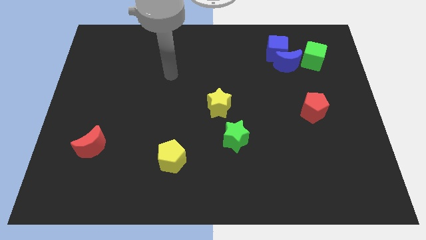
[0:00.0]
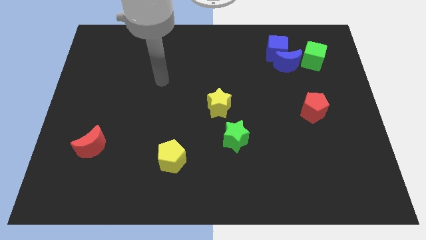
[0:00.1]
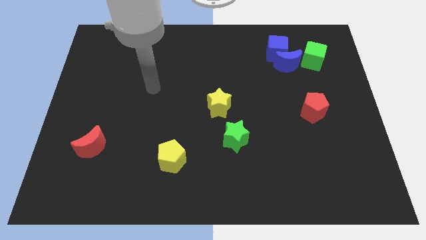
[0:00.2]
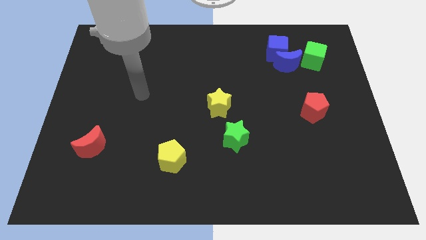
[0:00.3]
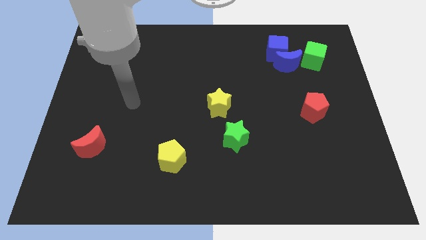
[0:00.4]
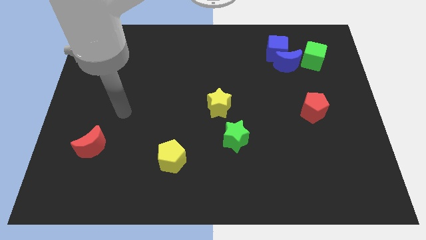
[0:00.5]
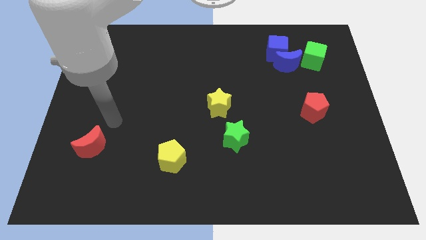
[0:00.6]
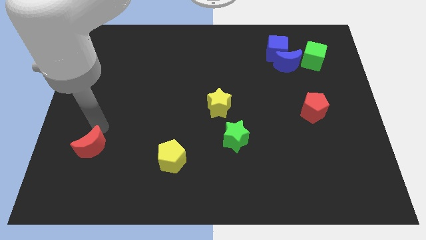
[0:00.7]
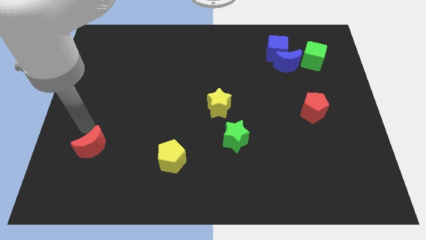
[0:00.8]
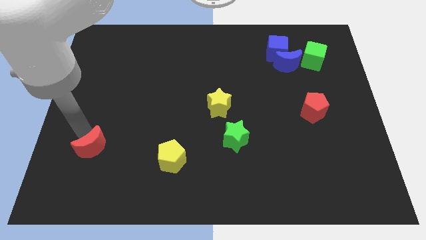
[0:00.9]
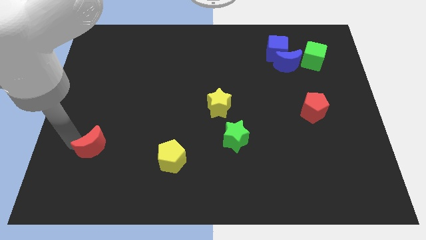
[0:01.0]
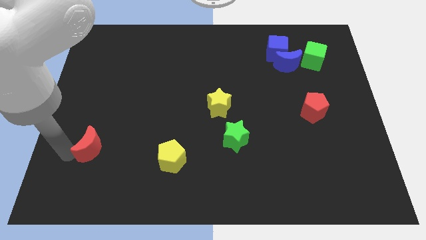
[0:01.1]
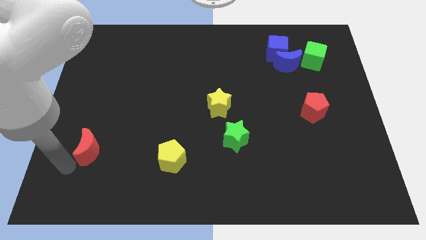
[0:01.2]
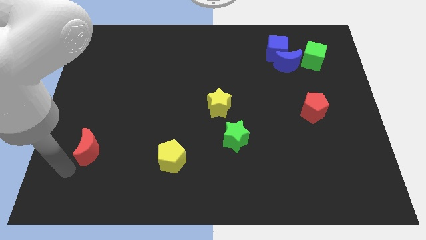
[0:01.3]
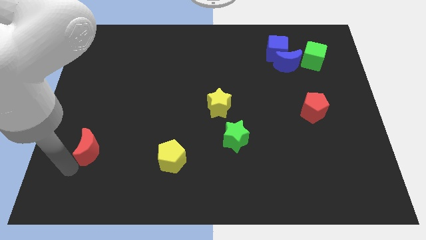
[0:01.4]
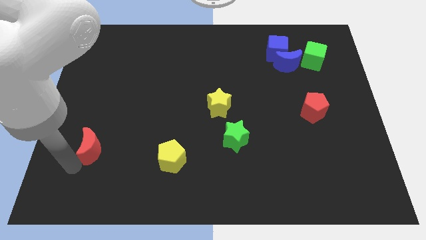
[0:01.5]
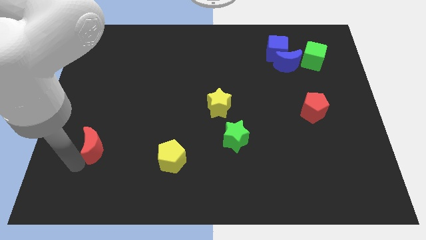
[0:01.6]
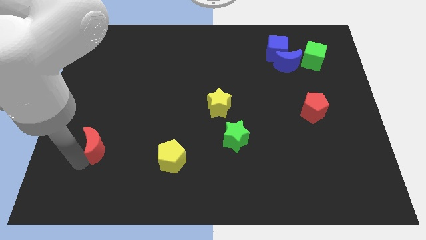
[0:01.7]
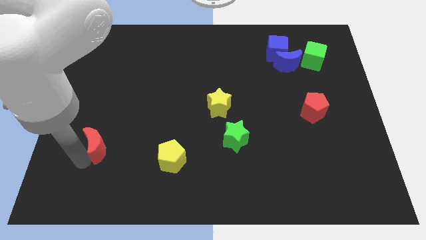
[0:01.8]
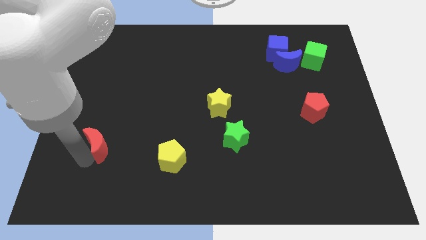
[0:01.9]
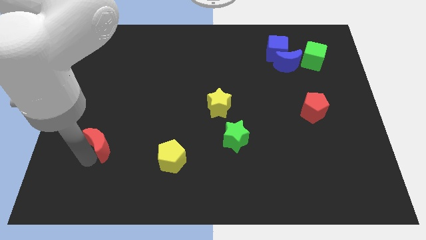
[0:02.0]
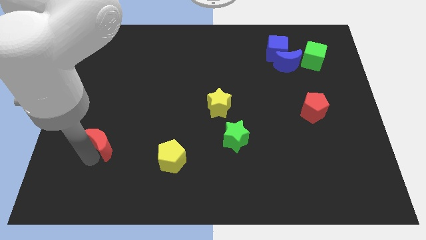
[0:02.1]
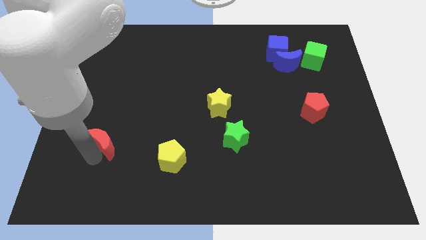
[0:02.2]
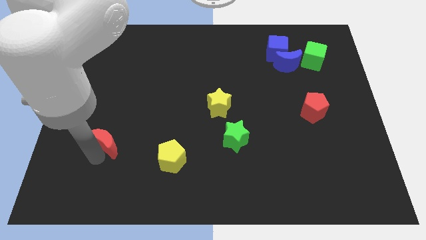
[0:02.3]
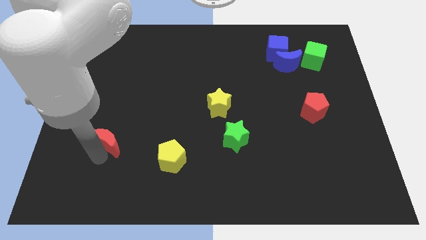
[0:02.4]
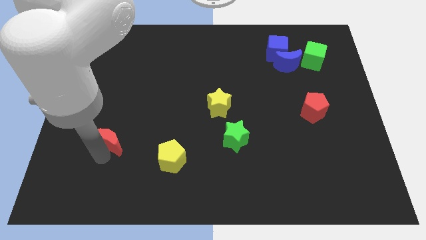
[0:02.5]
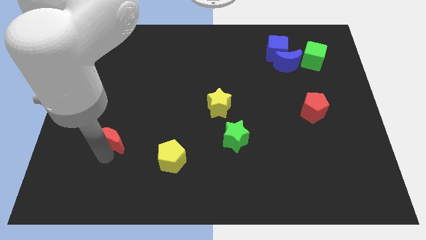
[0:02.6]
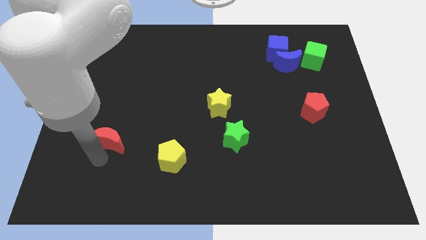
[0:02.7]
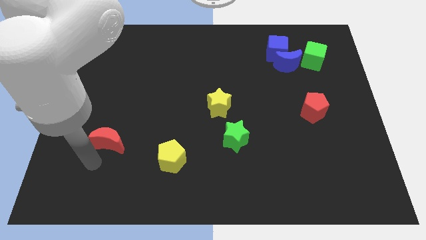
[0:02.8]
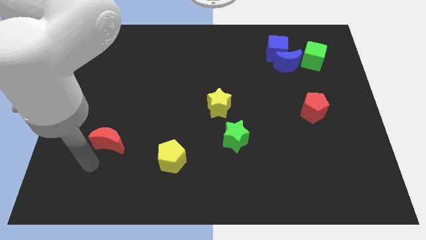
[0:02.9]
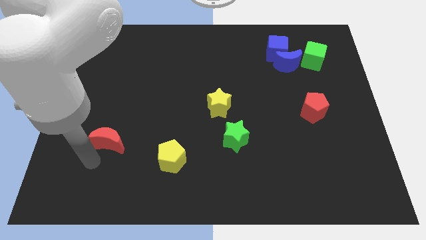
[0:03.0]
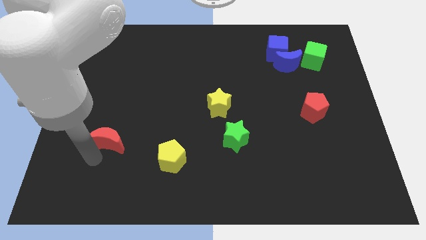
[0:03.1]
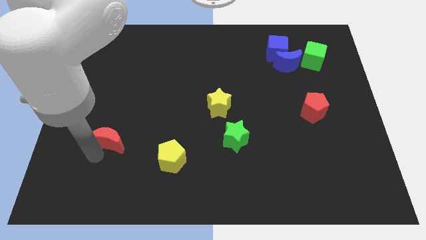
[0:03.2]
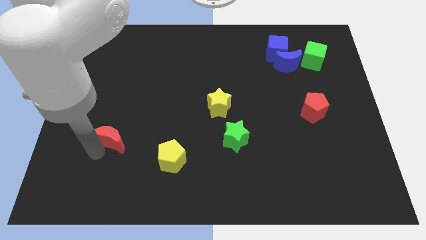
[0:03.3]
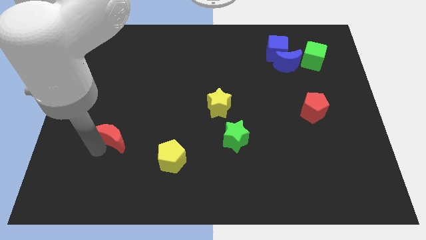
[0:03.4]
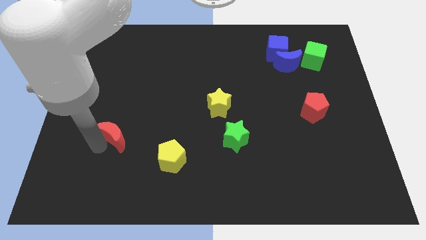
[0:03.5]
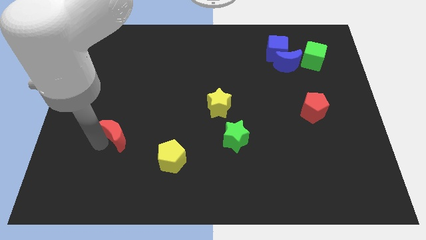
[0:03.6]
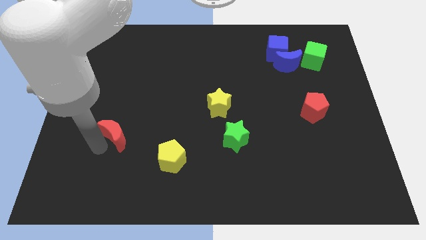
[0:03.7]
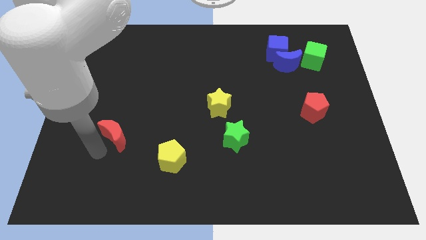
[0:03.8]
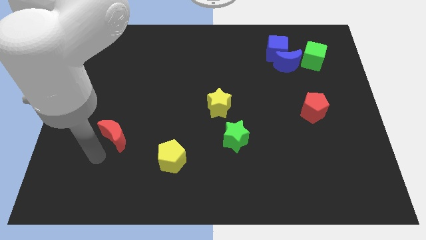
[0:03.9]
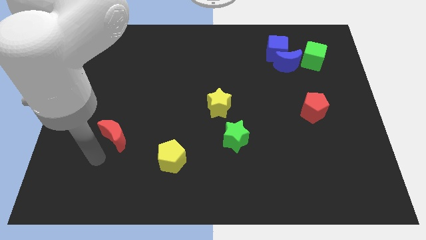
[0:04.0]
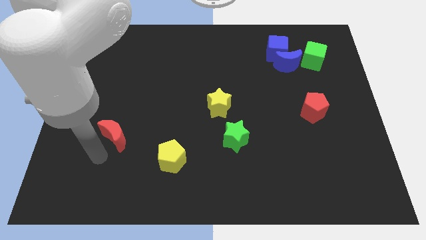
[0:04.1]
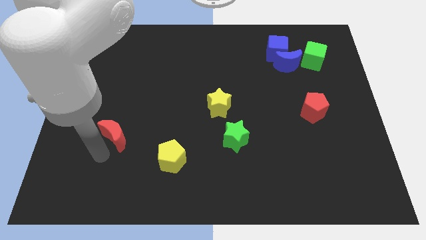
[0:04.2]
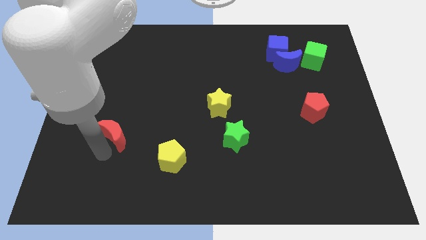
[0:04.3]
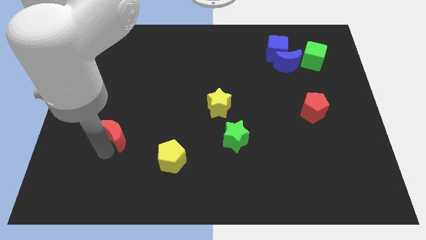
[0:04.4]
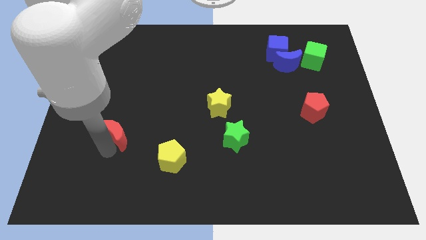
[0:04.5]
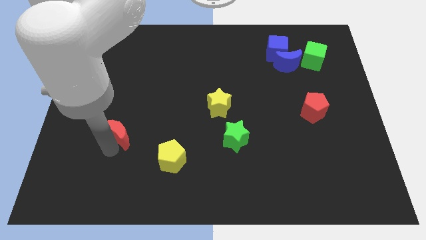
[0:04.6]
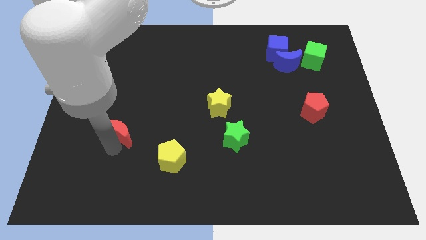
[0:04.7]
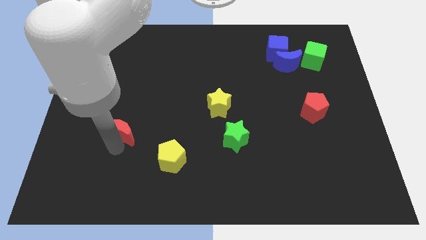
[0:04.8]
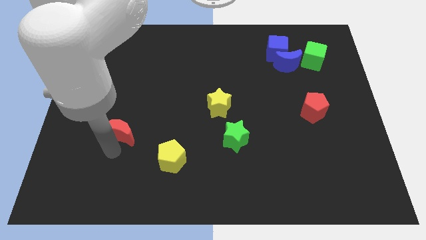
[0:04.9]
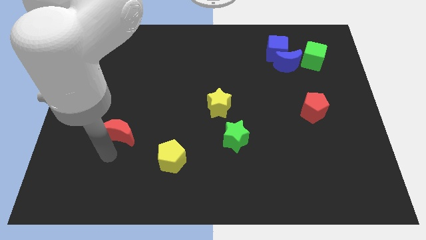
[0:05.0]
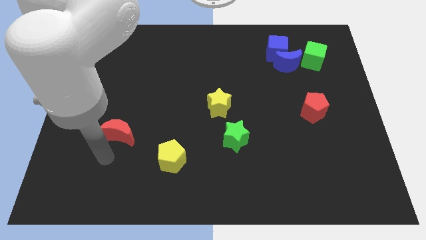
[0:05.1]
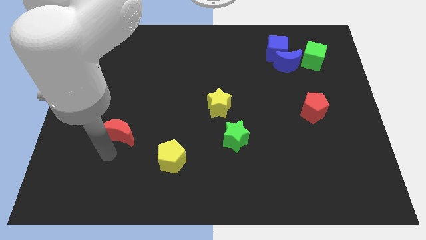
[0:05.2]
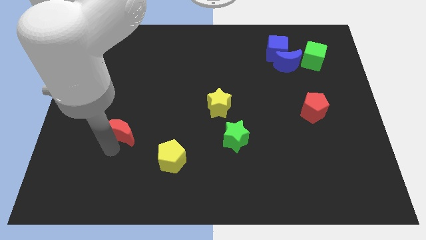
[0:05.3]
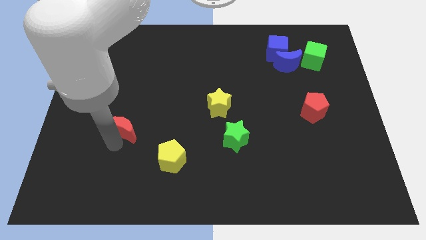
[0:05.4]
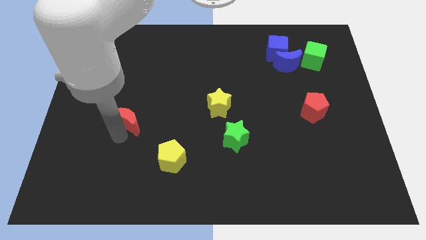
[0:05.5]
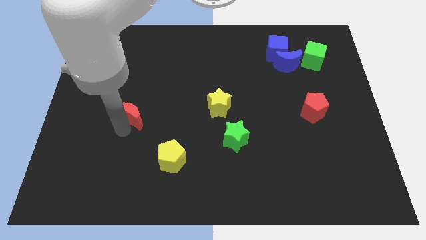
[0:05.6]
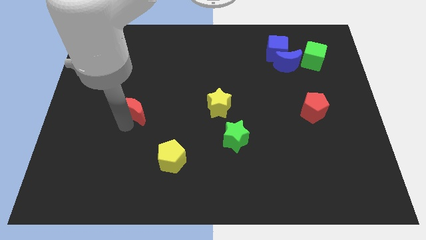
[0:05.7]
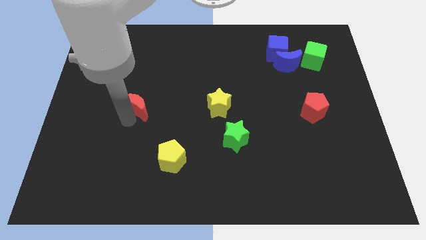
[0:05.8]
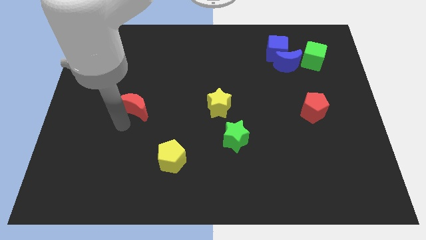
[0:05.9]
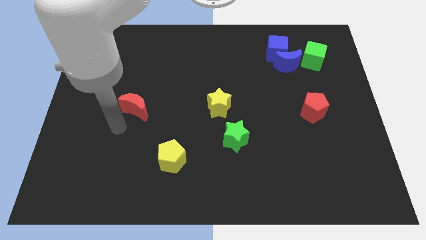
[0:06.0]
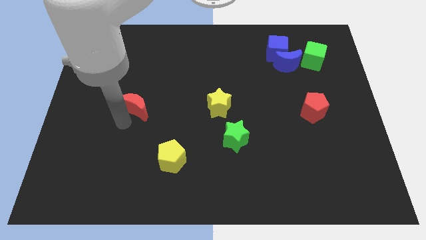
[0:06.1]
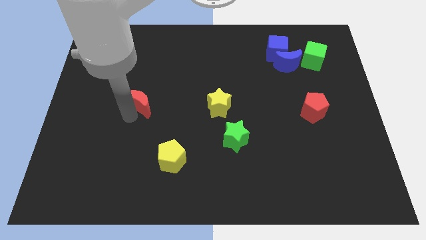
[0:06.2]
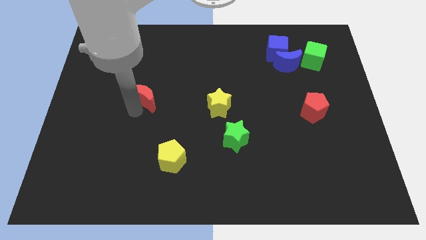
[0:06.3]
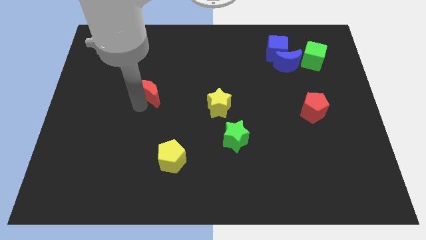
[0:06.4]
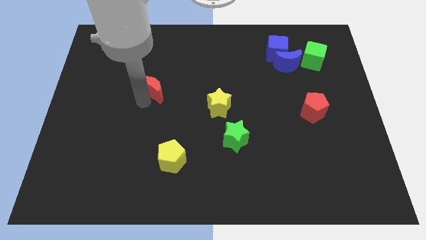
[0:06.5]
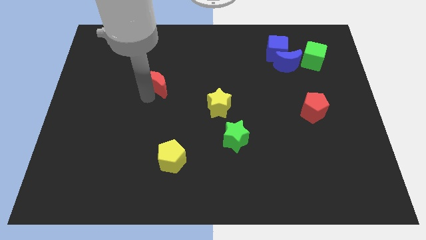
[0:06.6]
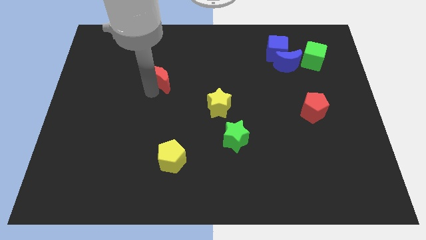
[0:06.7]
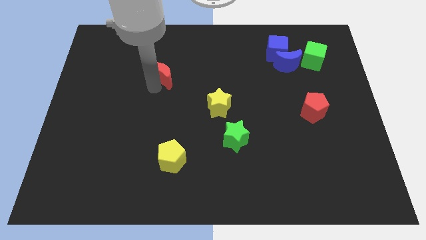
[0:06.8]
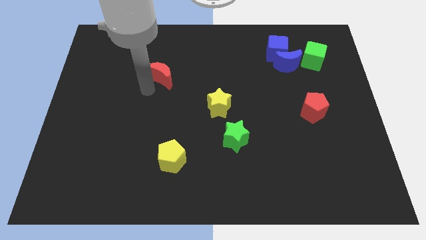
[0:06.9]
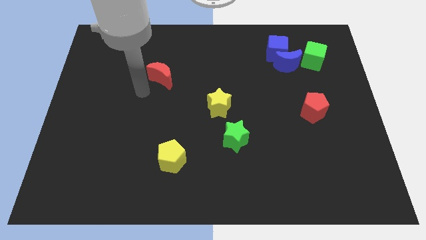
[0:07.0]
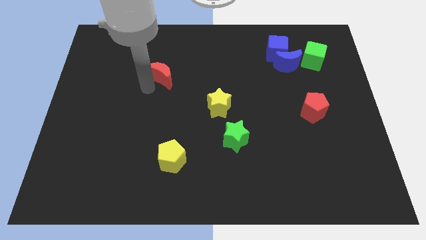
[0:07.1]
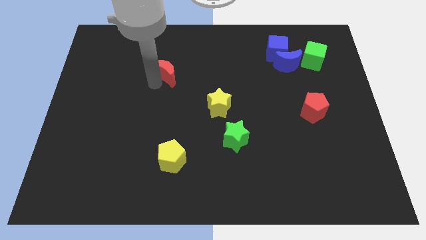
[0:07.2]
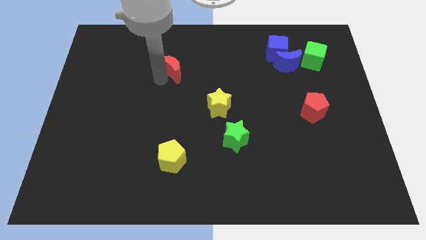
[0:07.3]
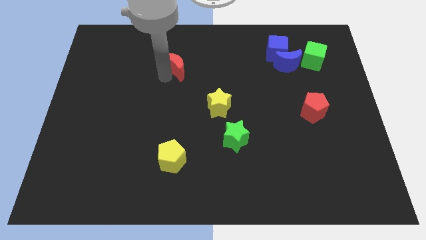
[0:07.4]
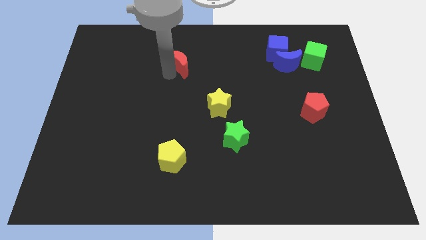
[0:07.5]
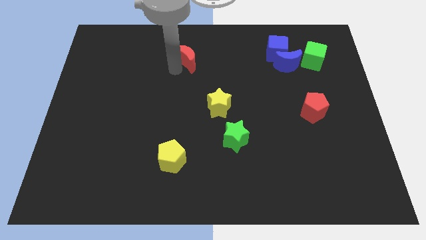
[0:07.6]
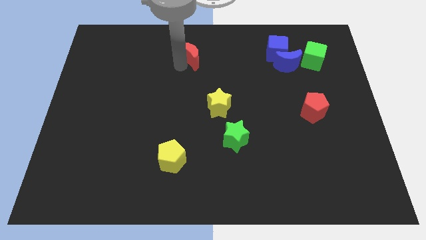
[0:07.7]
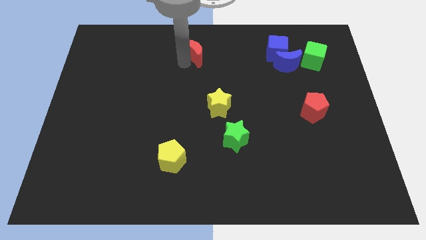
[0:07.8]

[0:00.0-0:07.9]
put the red moon to the top side

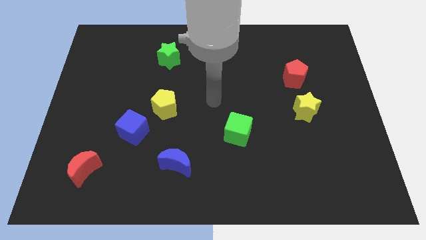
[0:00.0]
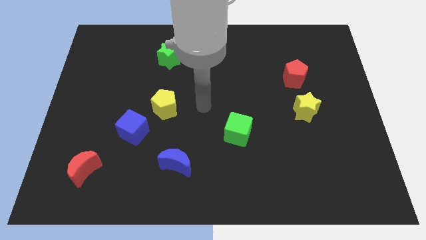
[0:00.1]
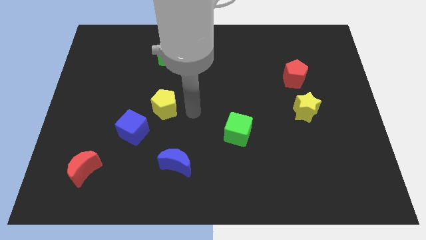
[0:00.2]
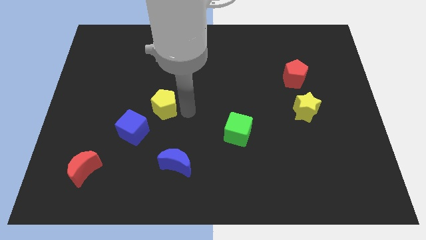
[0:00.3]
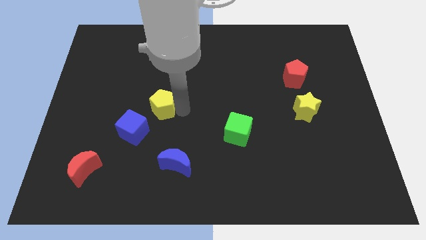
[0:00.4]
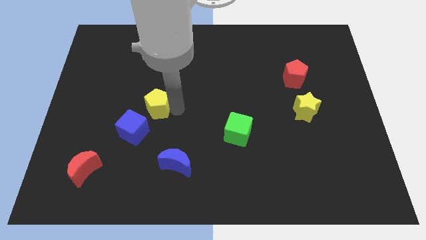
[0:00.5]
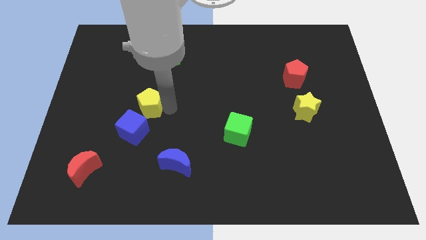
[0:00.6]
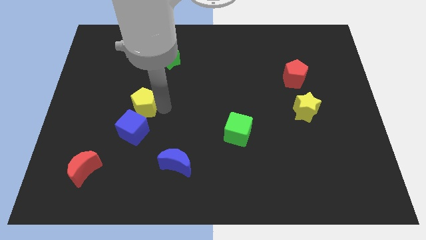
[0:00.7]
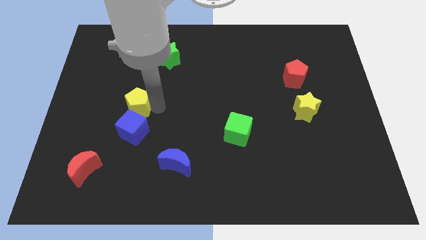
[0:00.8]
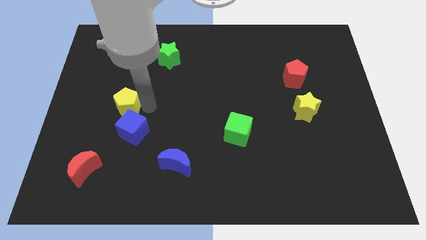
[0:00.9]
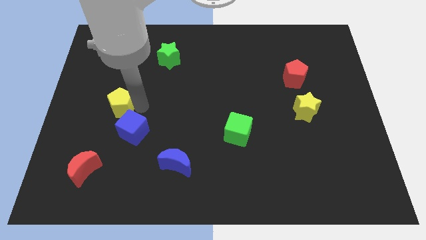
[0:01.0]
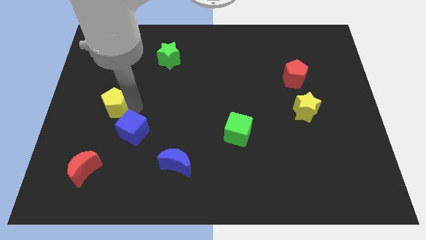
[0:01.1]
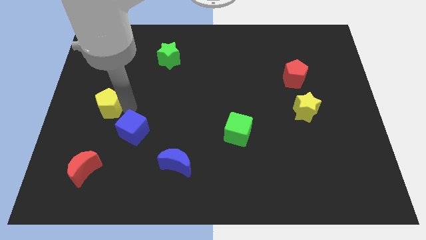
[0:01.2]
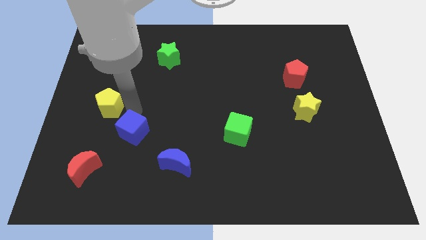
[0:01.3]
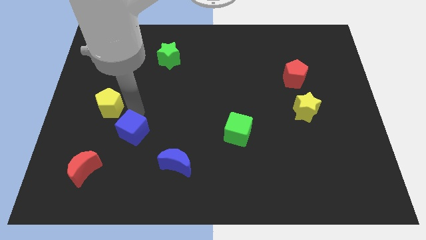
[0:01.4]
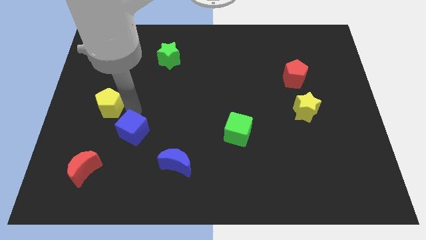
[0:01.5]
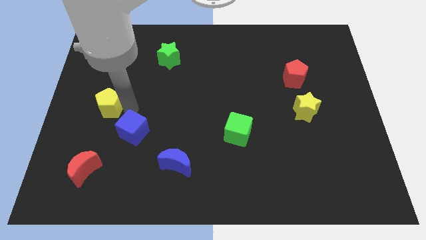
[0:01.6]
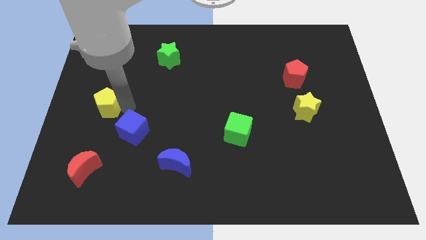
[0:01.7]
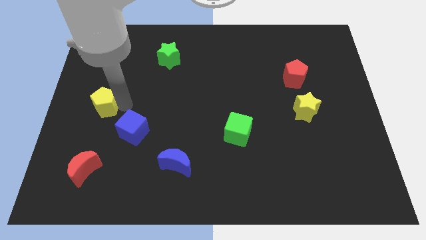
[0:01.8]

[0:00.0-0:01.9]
put the yellow pentagon to the left side
